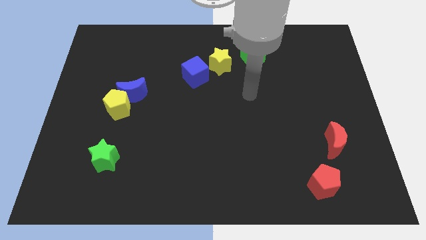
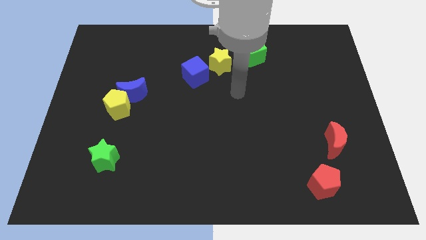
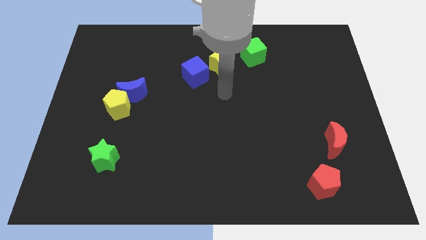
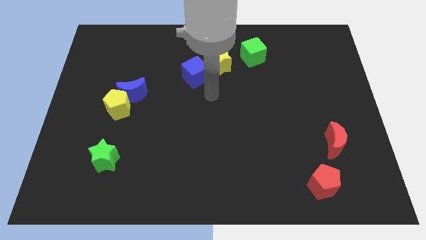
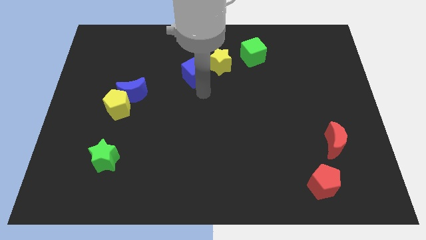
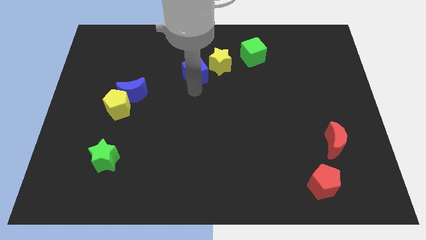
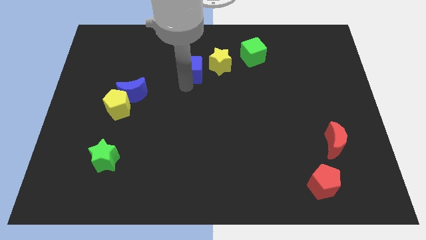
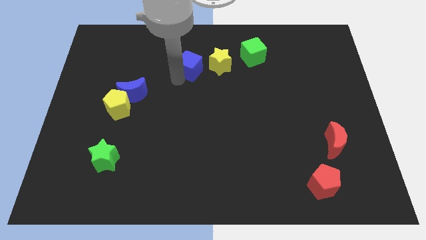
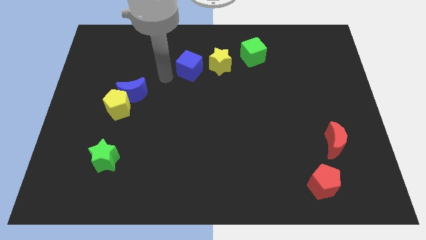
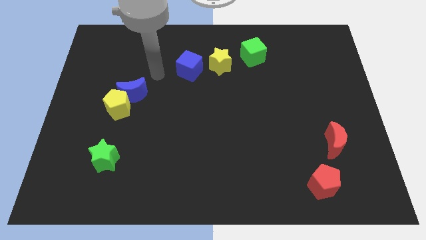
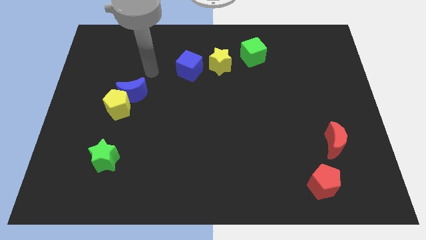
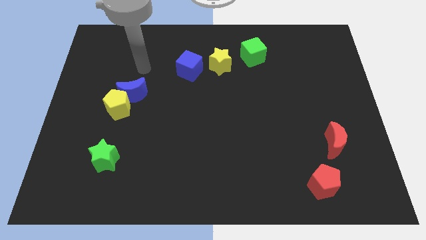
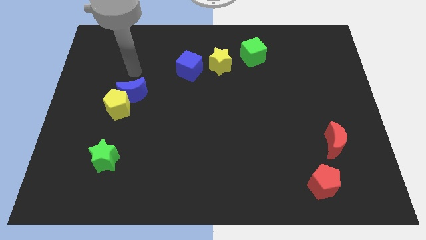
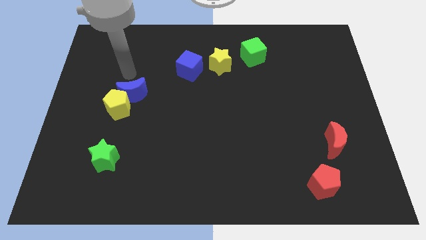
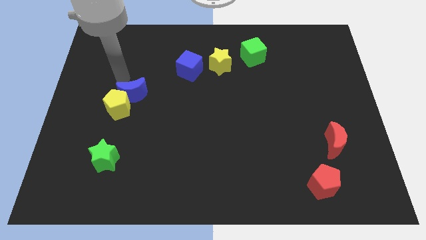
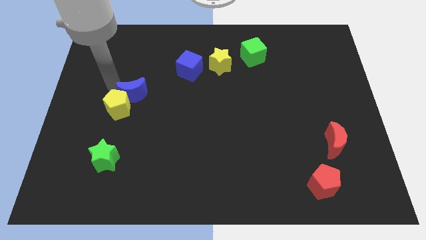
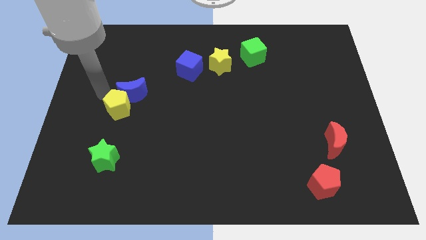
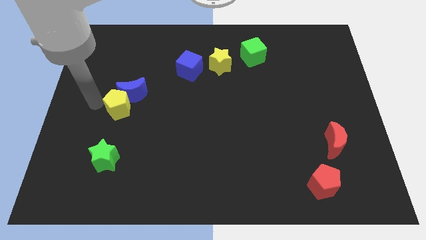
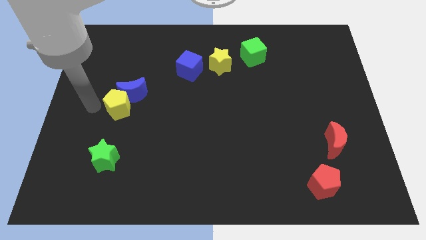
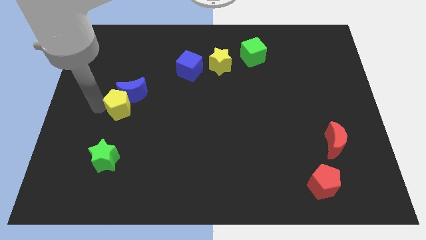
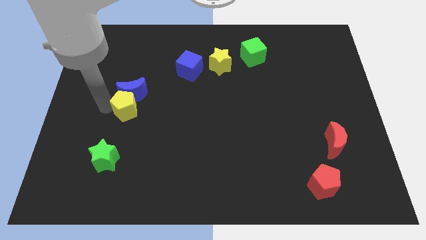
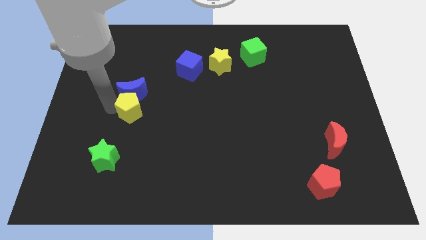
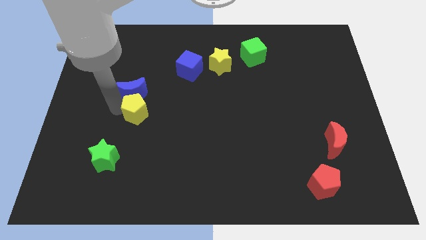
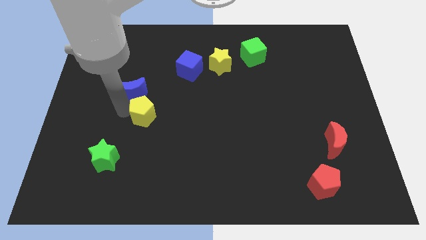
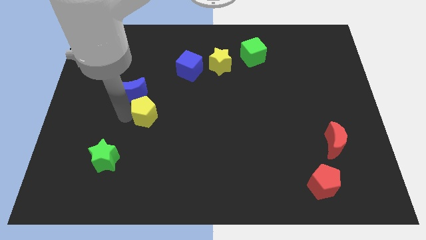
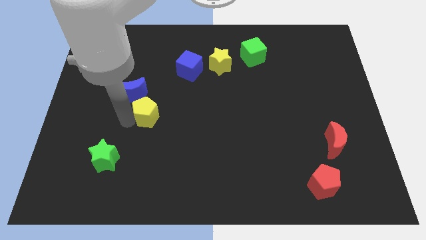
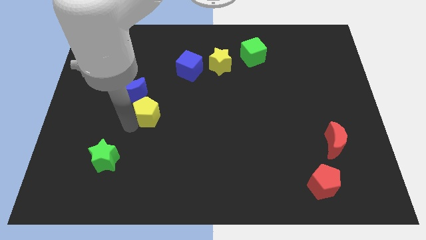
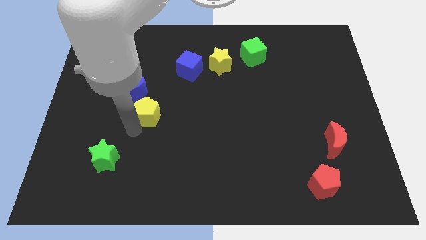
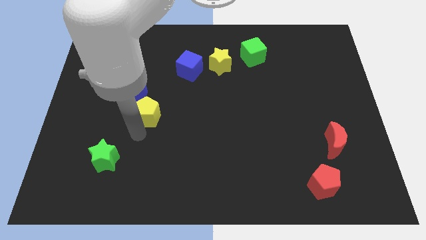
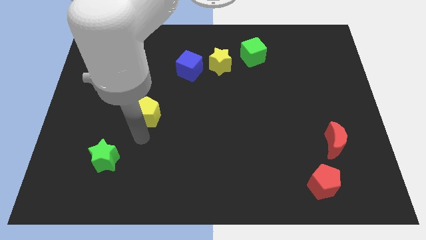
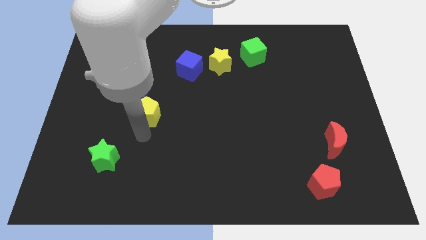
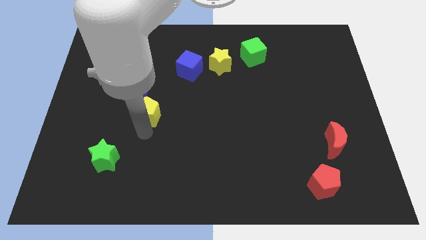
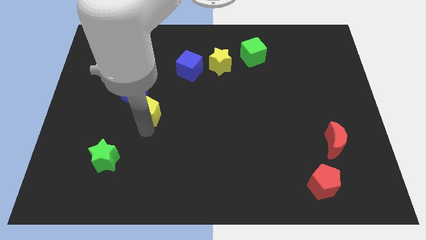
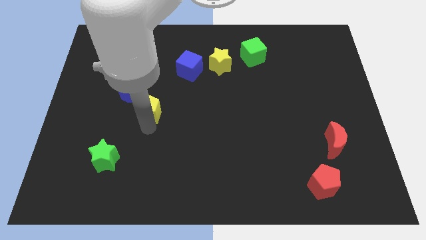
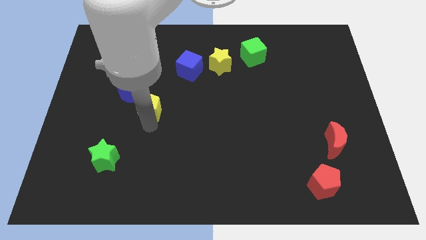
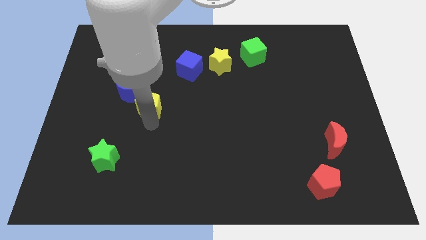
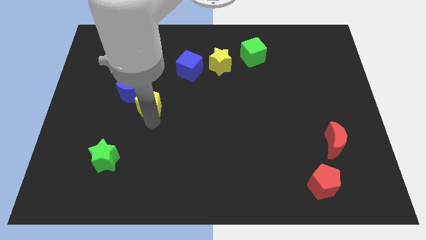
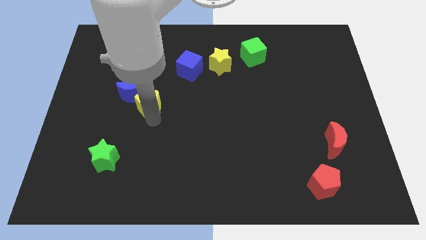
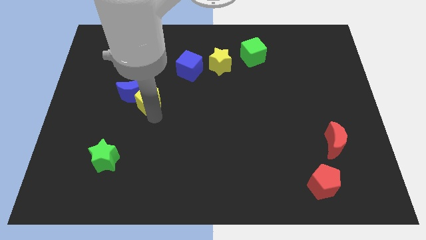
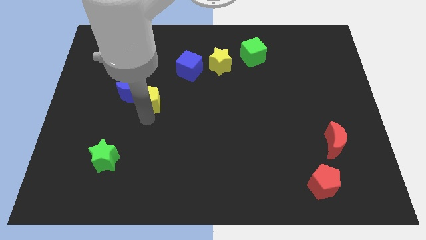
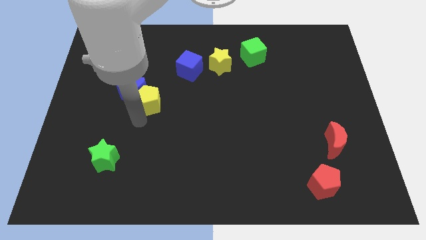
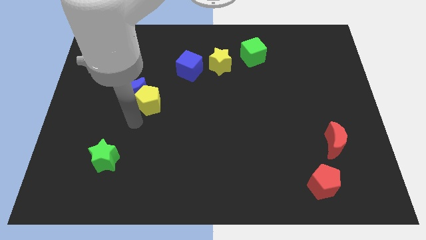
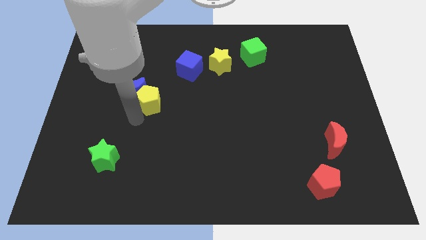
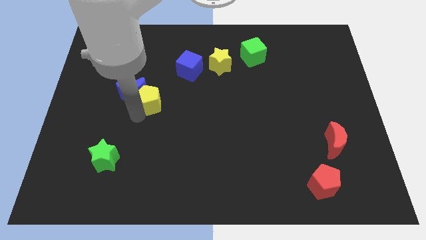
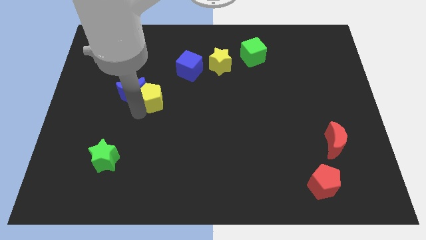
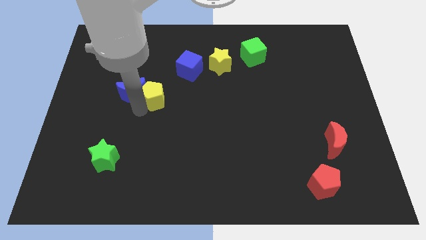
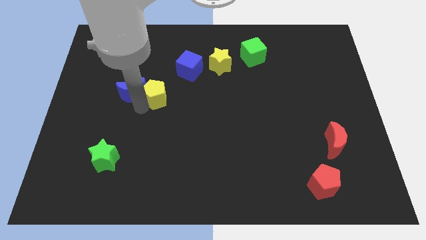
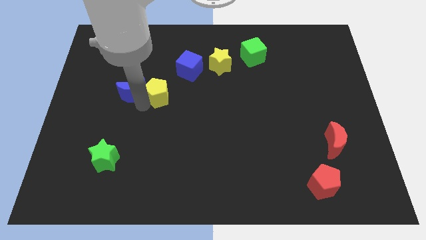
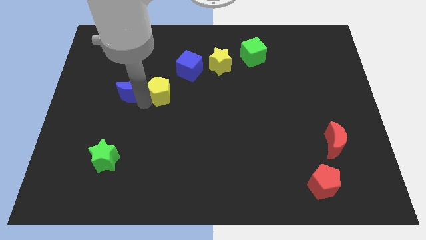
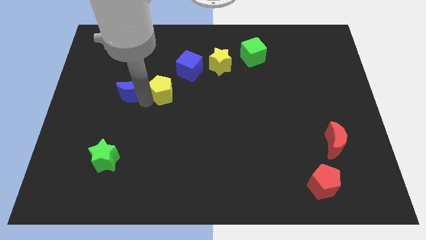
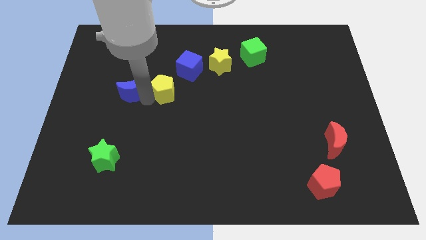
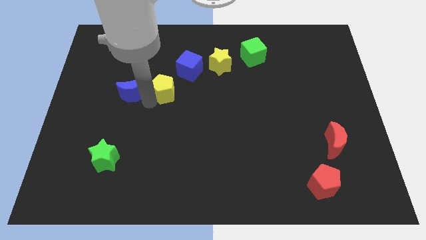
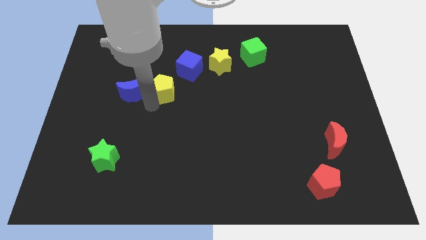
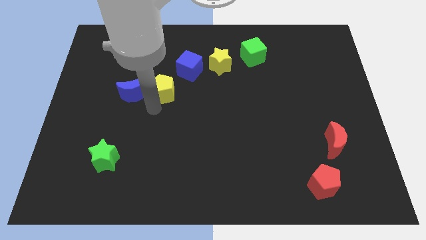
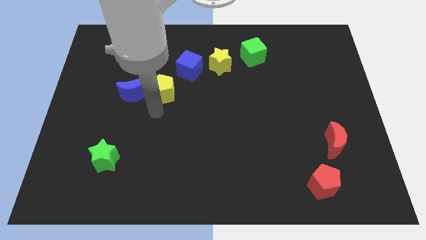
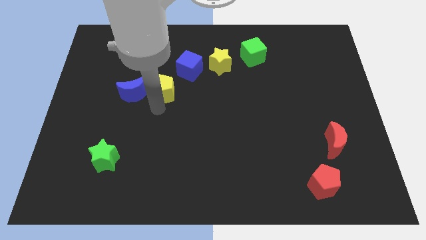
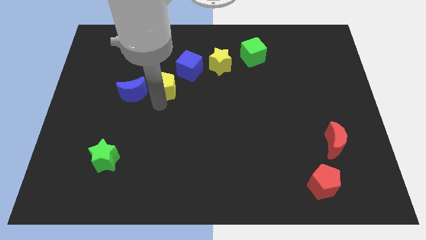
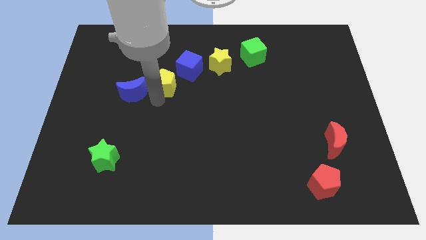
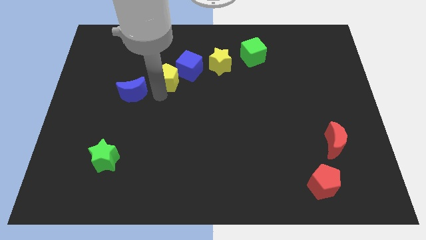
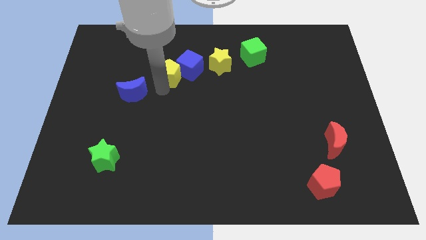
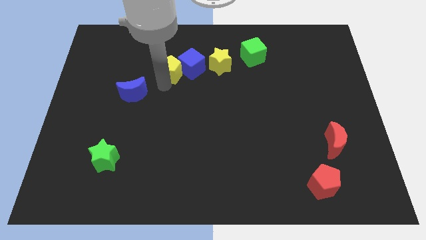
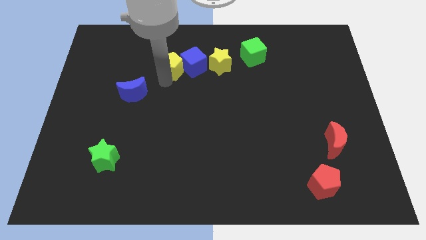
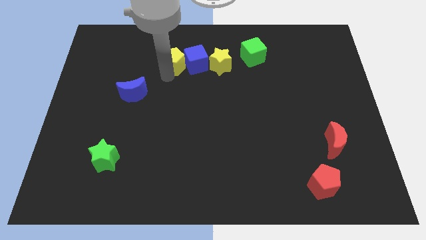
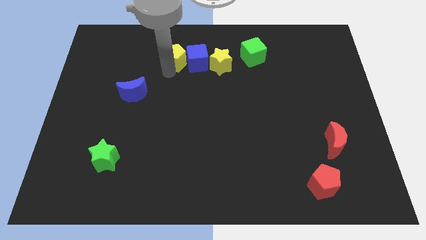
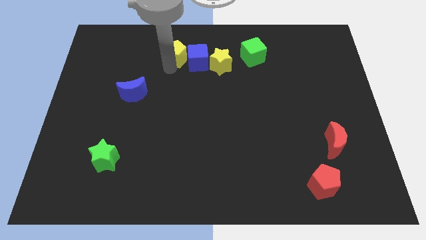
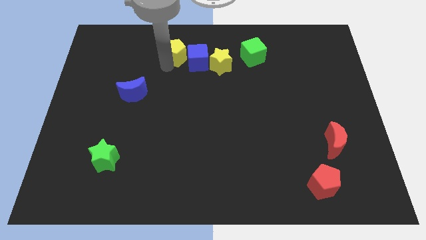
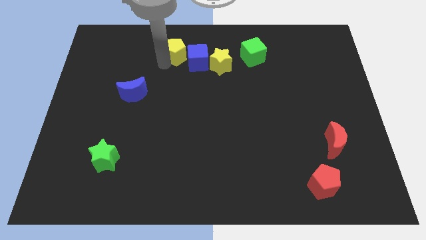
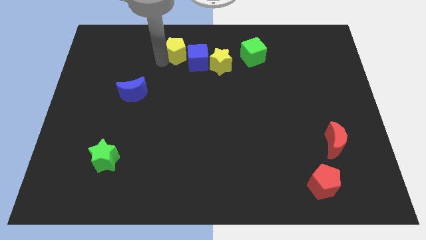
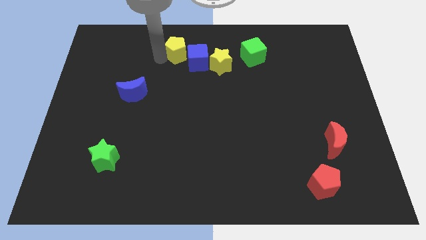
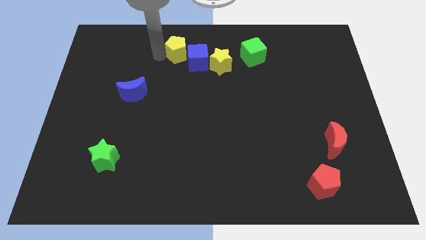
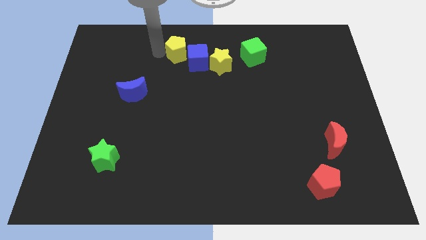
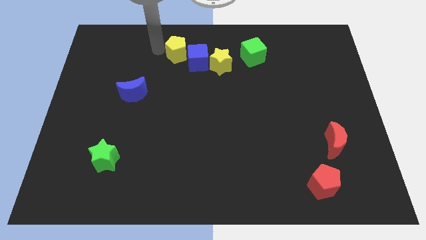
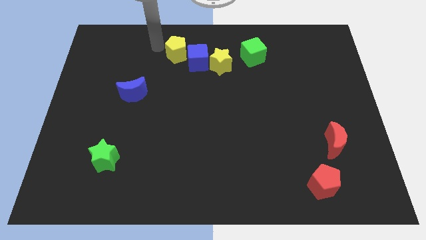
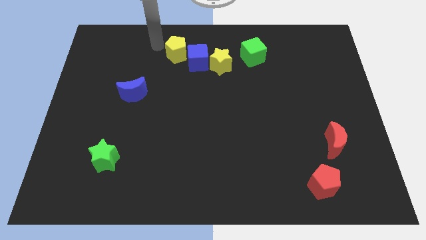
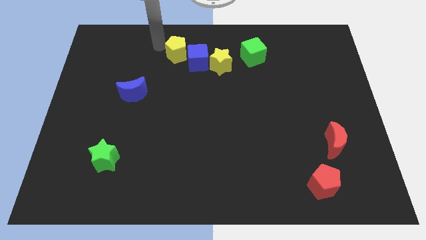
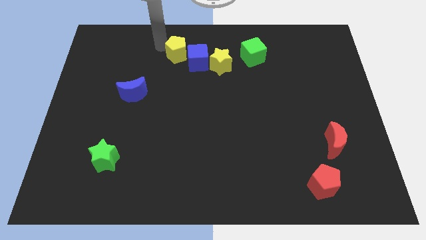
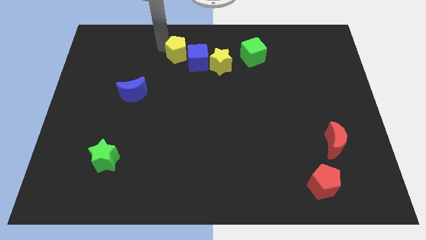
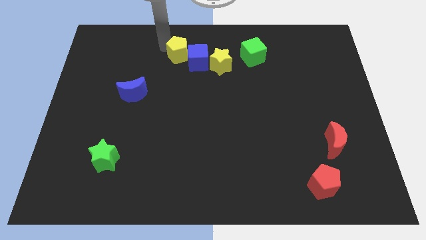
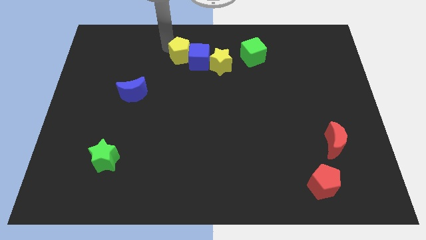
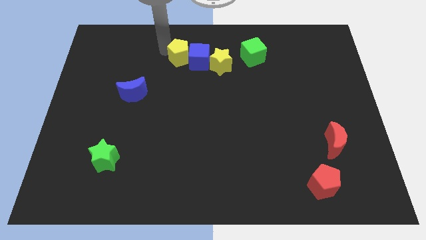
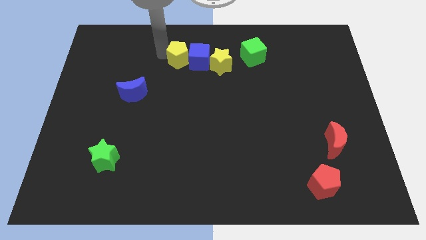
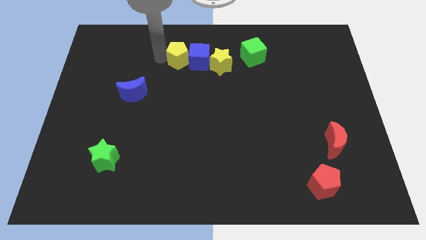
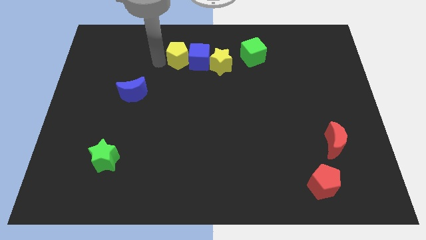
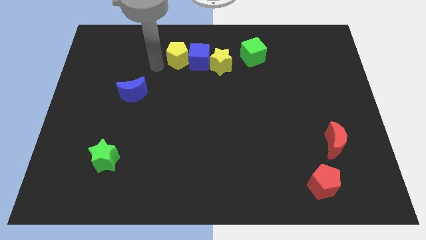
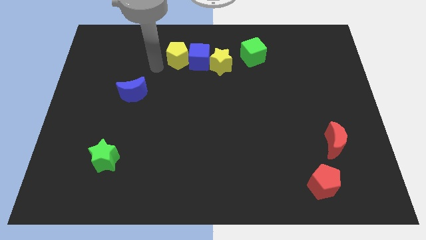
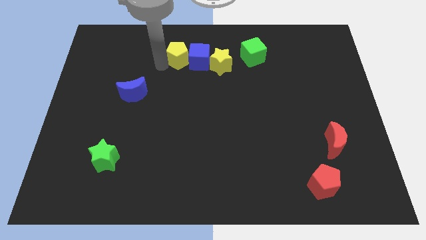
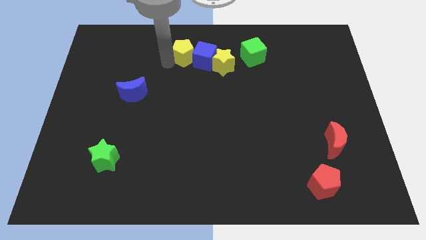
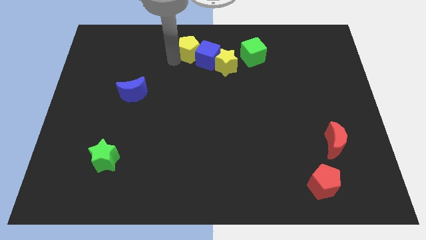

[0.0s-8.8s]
push the yellow pentagon to the top side
